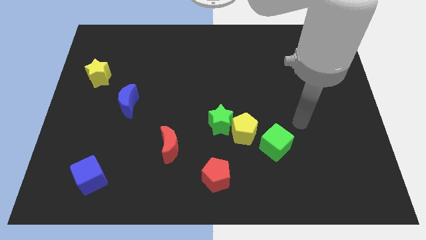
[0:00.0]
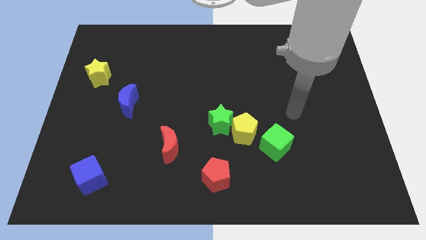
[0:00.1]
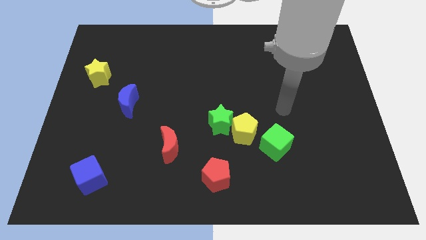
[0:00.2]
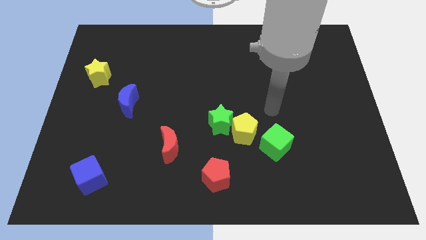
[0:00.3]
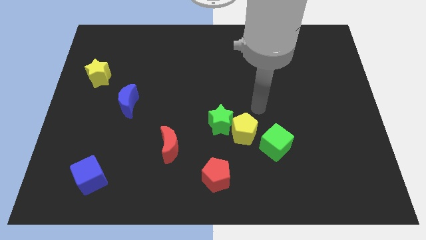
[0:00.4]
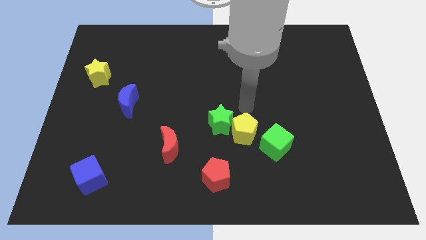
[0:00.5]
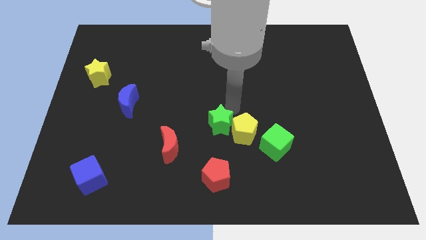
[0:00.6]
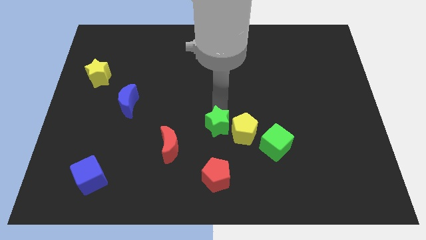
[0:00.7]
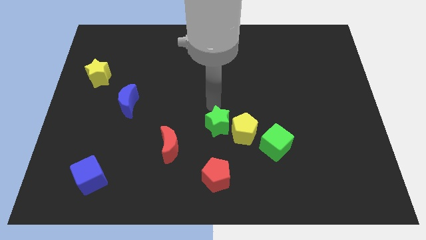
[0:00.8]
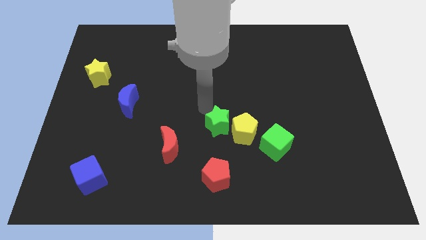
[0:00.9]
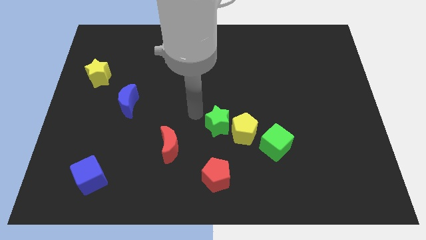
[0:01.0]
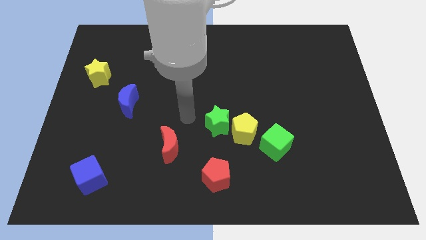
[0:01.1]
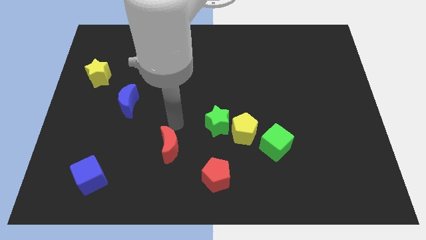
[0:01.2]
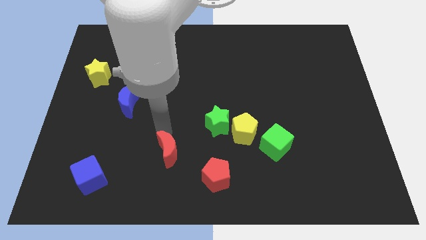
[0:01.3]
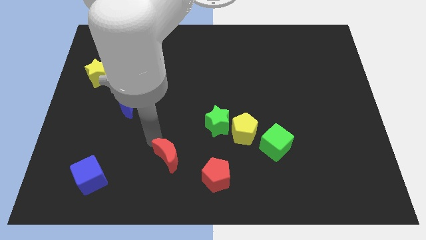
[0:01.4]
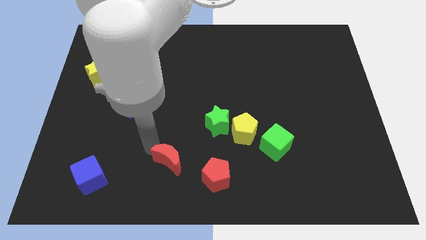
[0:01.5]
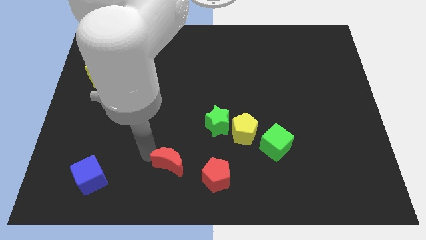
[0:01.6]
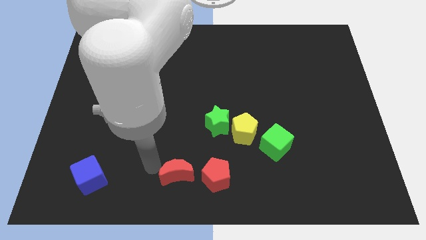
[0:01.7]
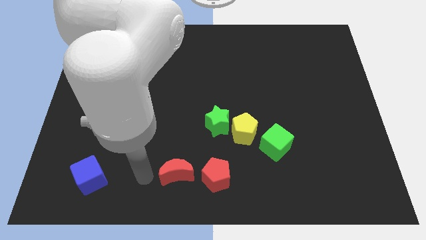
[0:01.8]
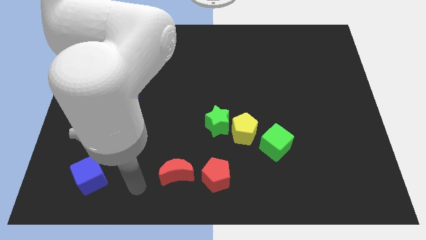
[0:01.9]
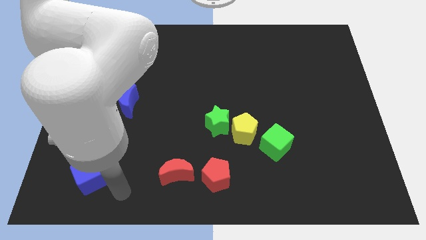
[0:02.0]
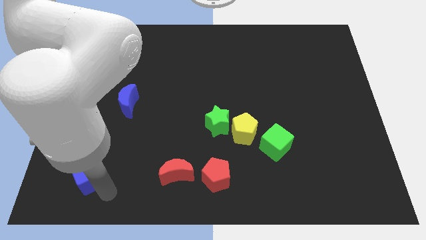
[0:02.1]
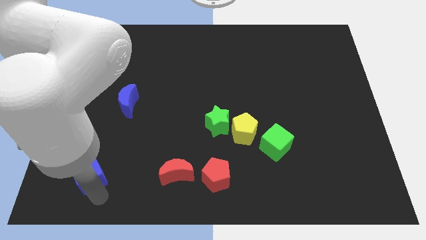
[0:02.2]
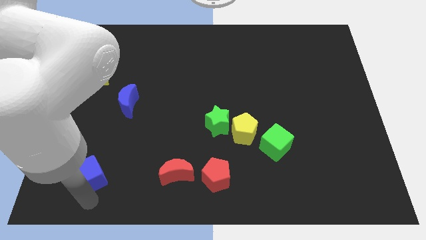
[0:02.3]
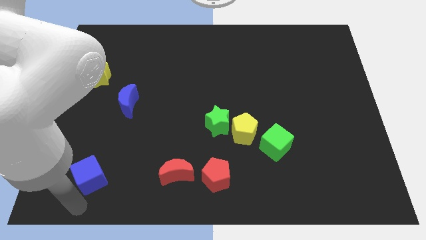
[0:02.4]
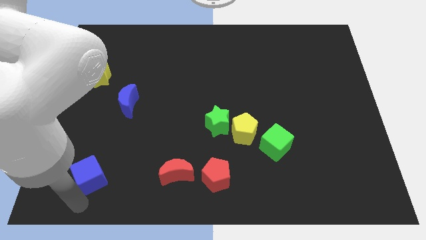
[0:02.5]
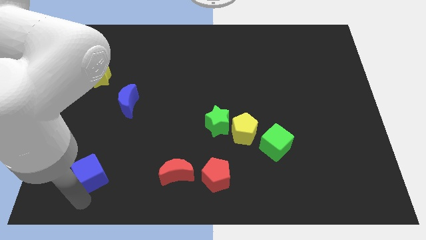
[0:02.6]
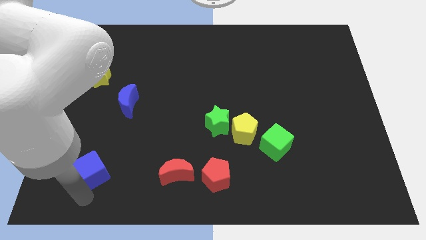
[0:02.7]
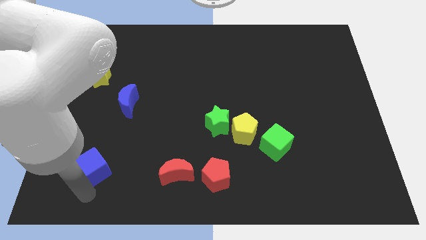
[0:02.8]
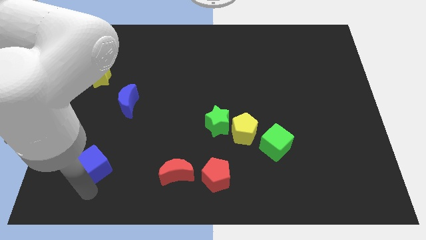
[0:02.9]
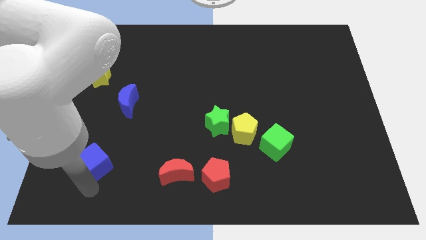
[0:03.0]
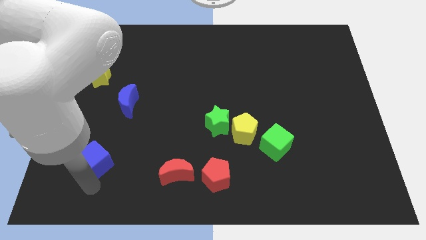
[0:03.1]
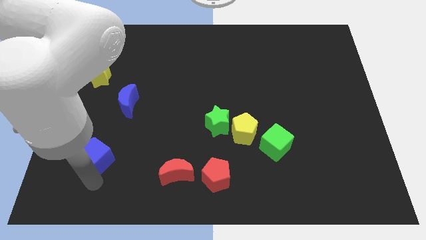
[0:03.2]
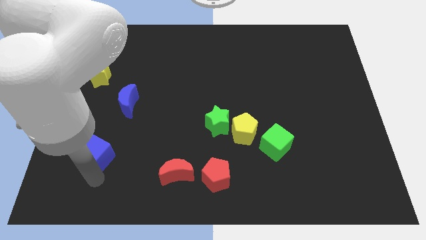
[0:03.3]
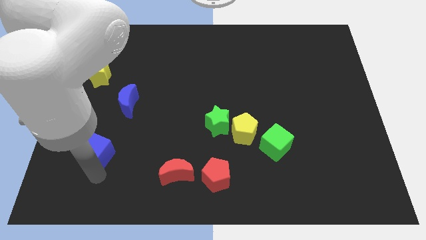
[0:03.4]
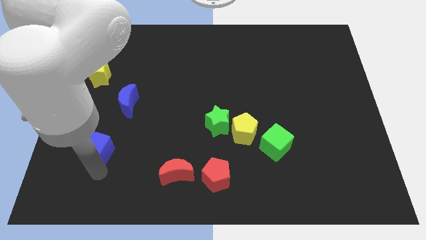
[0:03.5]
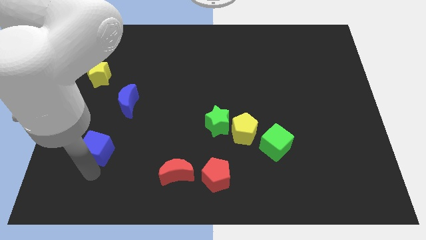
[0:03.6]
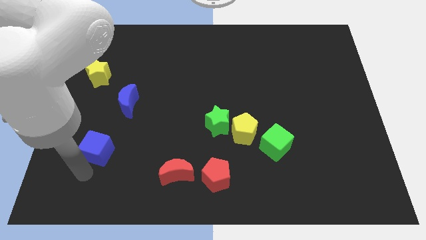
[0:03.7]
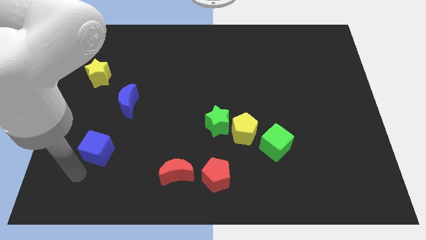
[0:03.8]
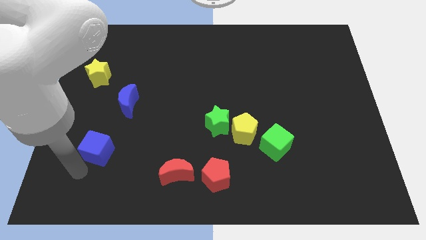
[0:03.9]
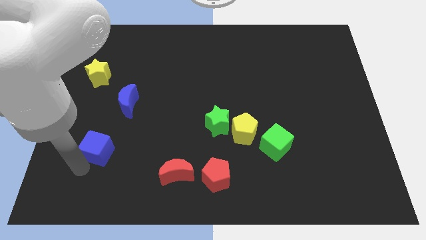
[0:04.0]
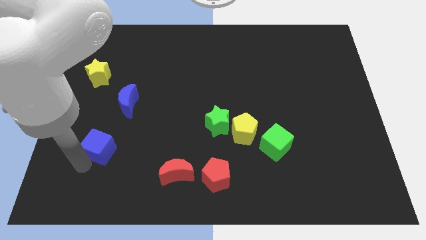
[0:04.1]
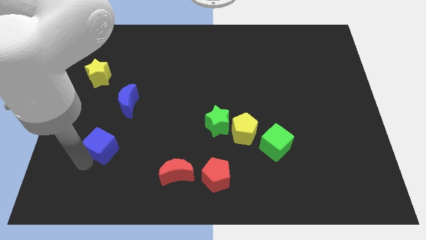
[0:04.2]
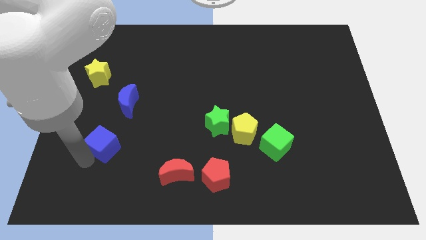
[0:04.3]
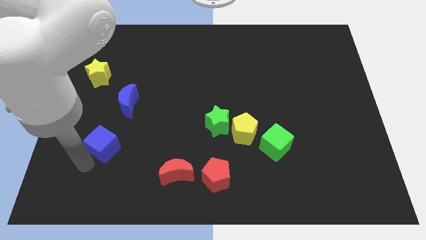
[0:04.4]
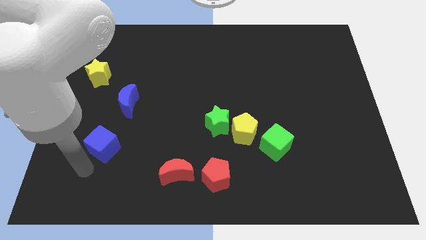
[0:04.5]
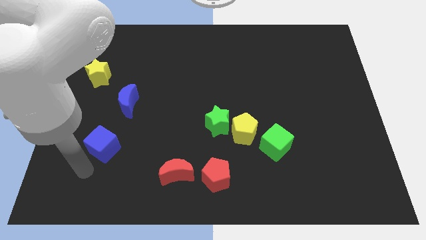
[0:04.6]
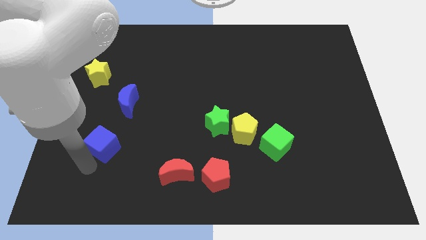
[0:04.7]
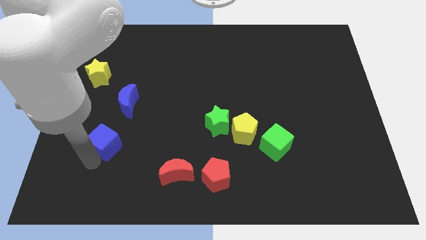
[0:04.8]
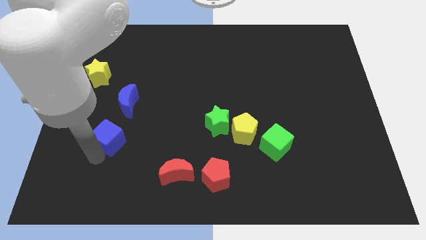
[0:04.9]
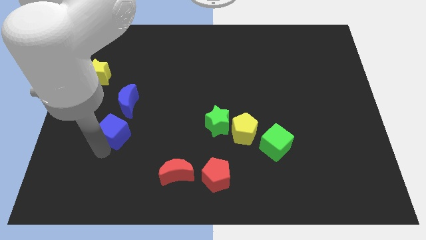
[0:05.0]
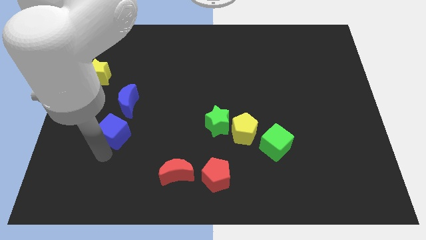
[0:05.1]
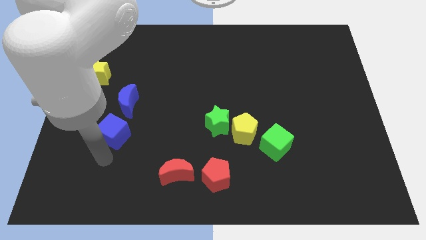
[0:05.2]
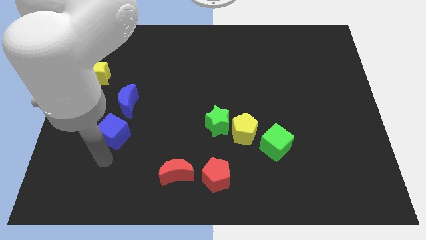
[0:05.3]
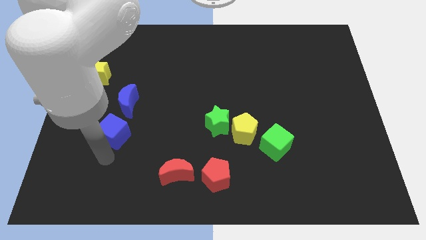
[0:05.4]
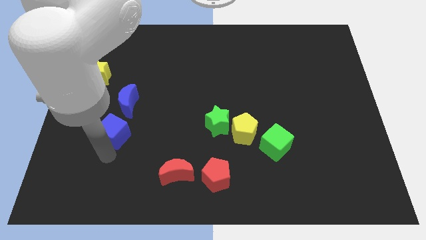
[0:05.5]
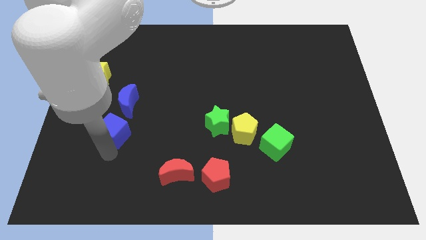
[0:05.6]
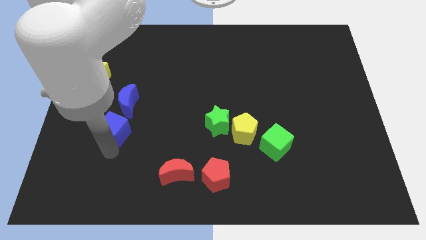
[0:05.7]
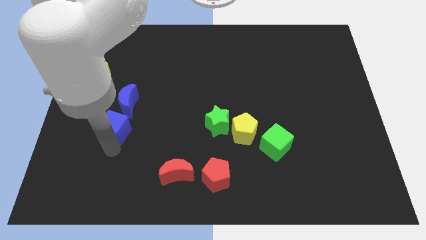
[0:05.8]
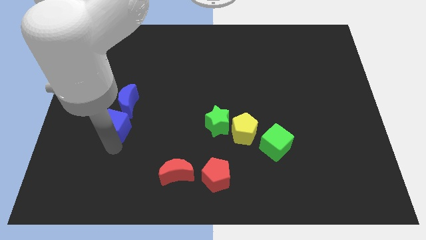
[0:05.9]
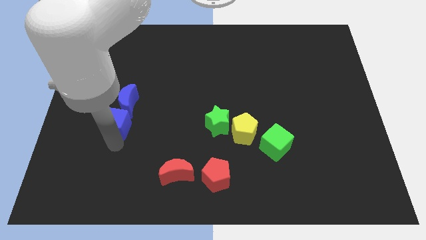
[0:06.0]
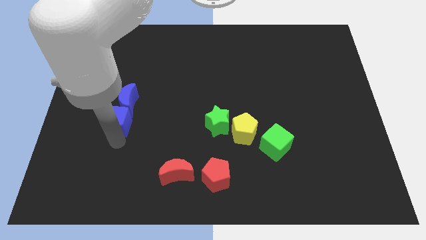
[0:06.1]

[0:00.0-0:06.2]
slide the blue cube next to the blue moon

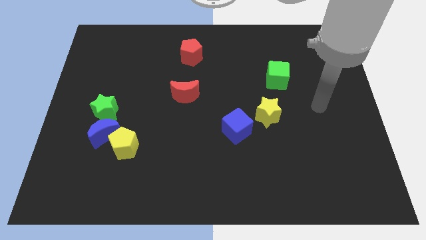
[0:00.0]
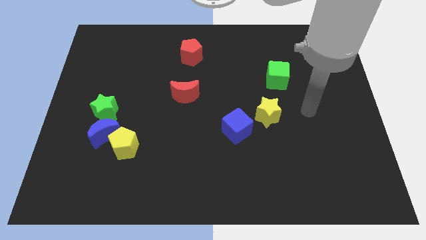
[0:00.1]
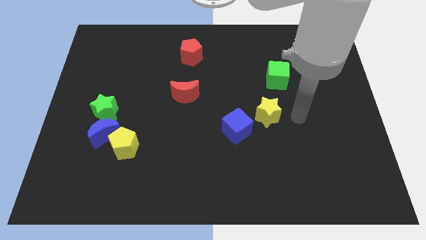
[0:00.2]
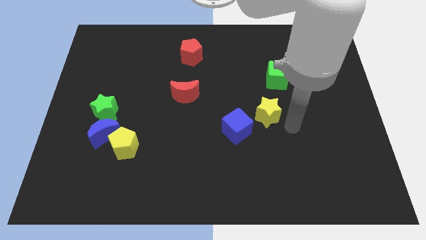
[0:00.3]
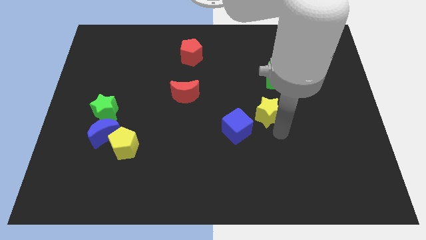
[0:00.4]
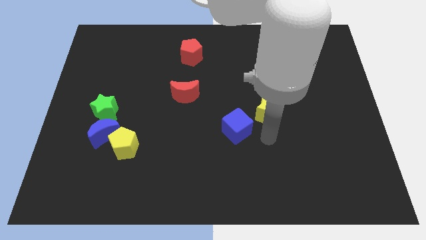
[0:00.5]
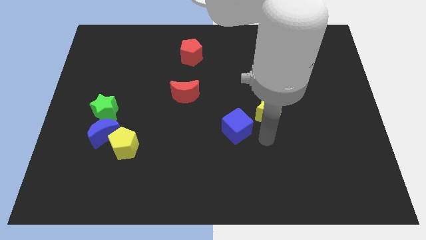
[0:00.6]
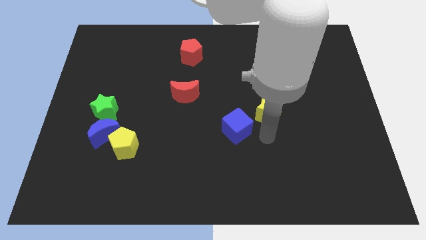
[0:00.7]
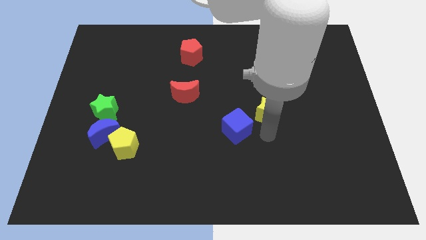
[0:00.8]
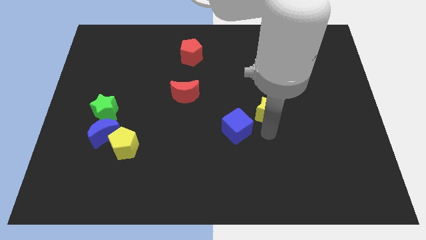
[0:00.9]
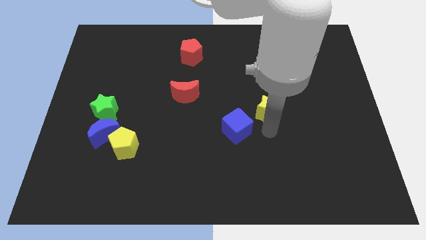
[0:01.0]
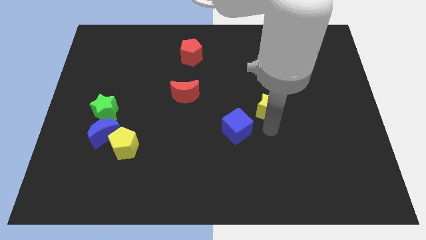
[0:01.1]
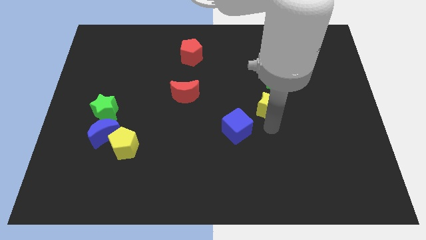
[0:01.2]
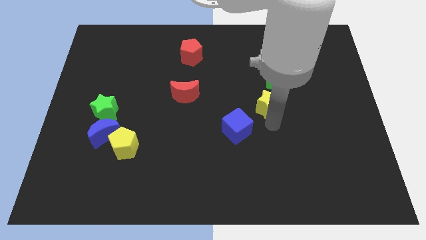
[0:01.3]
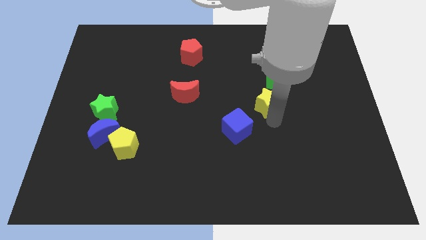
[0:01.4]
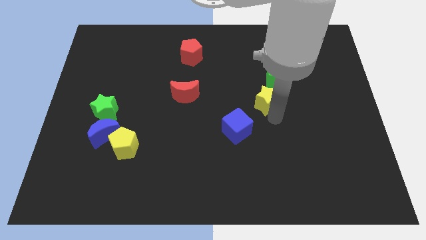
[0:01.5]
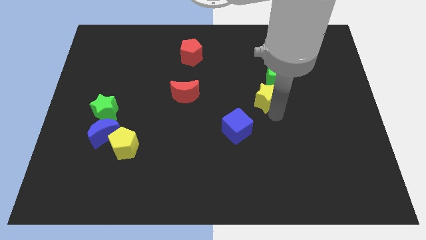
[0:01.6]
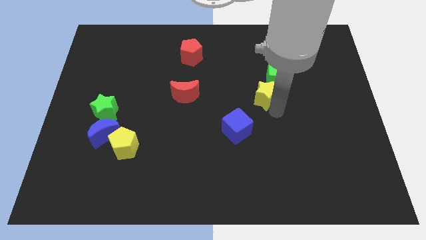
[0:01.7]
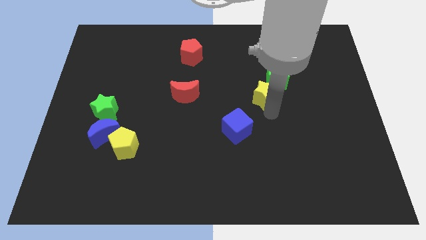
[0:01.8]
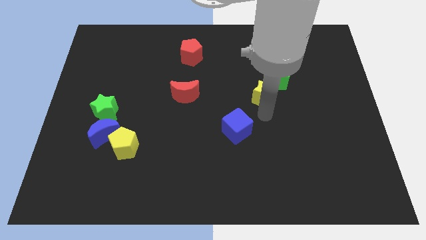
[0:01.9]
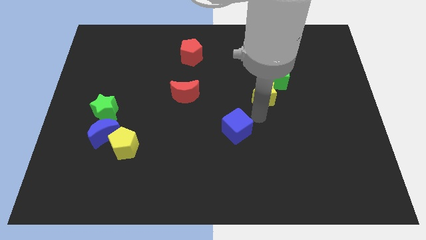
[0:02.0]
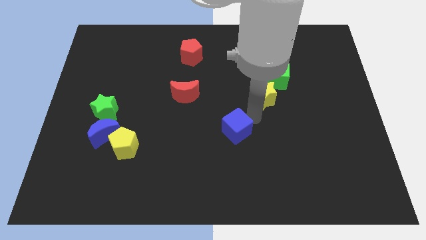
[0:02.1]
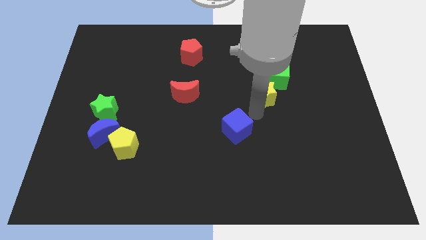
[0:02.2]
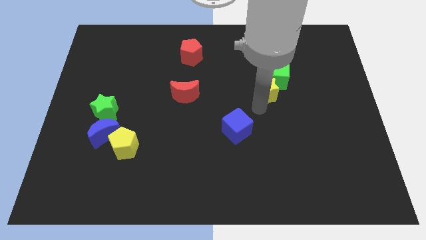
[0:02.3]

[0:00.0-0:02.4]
slide the yellow star to the green cube
